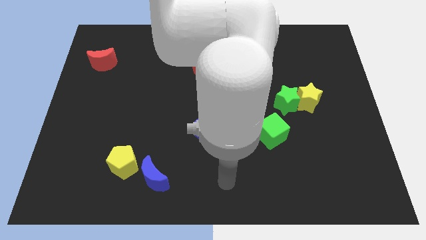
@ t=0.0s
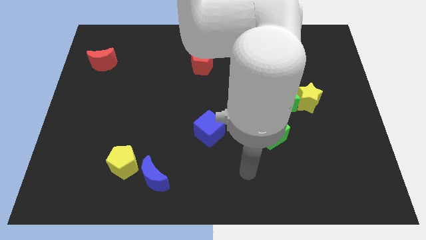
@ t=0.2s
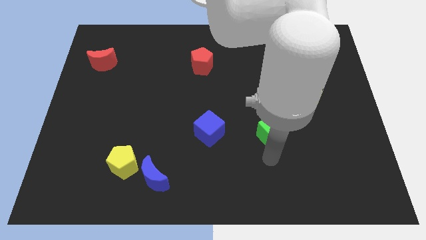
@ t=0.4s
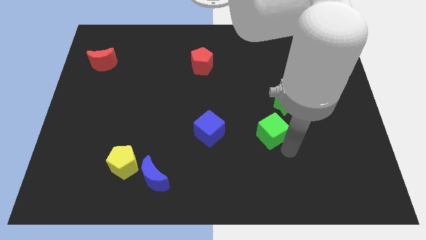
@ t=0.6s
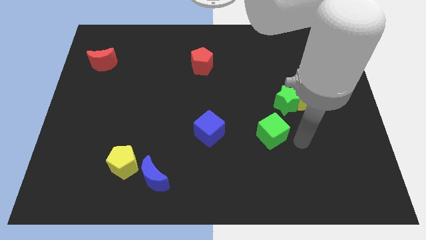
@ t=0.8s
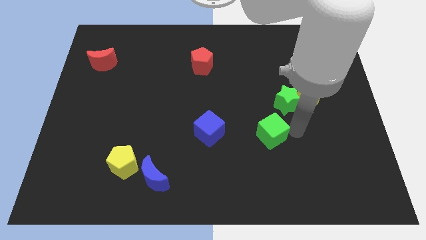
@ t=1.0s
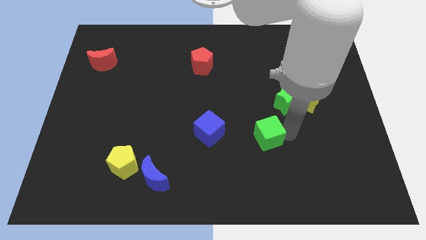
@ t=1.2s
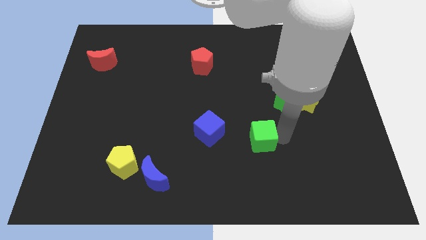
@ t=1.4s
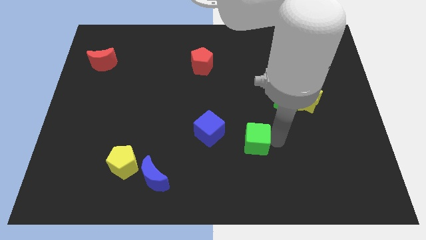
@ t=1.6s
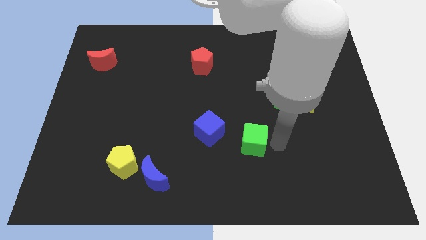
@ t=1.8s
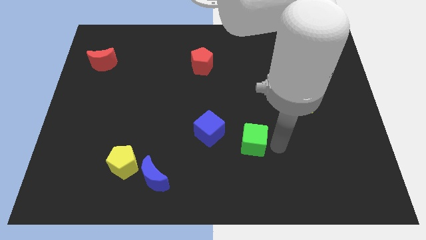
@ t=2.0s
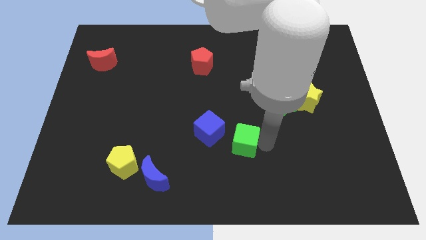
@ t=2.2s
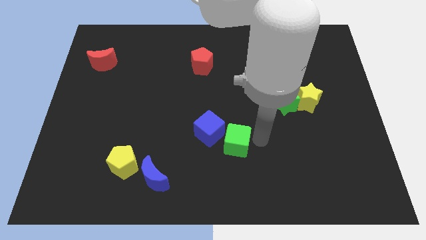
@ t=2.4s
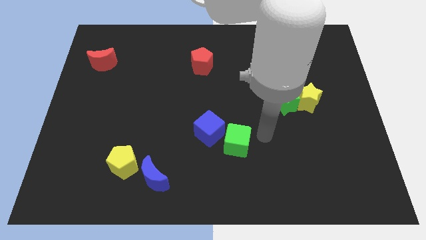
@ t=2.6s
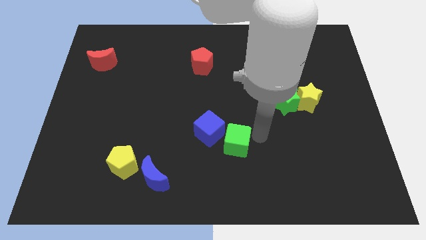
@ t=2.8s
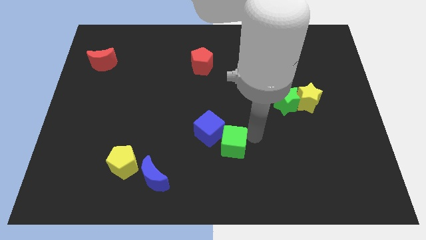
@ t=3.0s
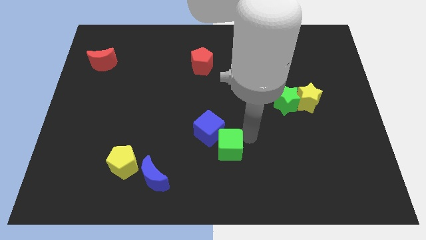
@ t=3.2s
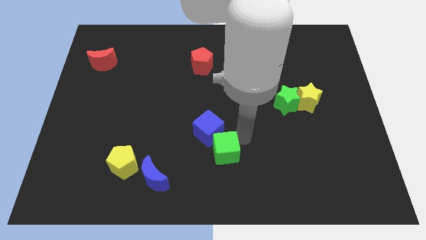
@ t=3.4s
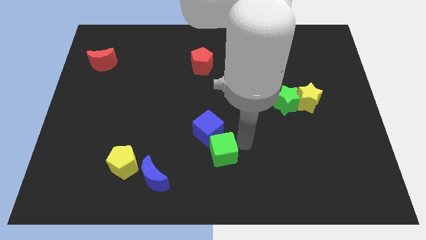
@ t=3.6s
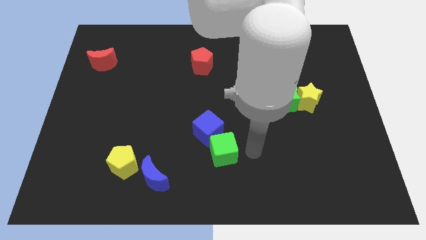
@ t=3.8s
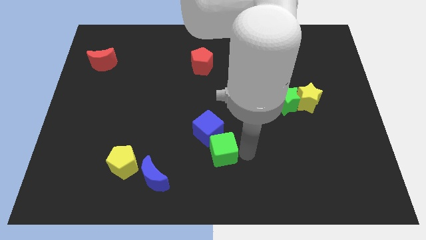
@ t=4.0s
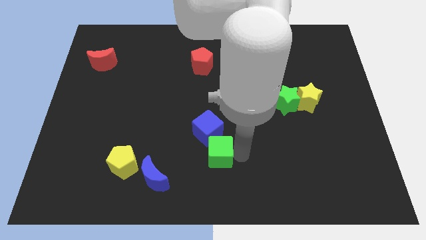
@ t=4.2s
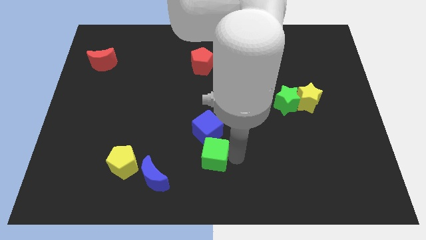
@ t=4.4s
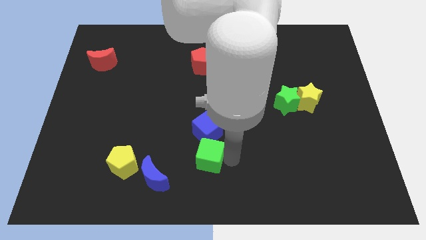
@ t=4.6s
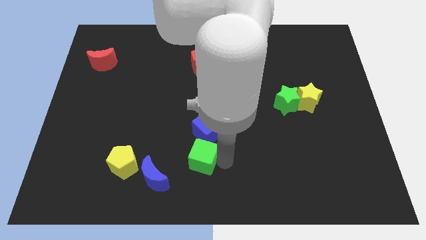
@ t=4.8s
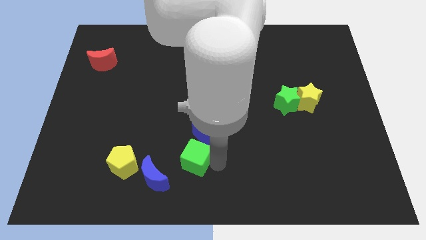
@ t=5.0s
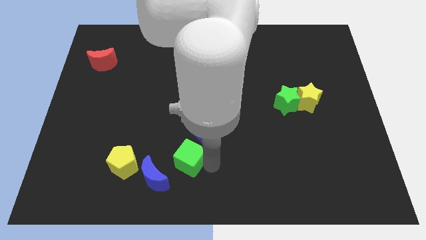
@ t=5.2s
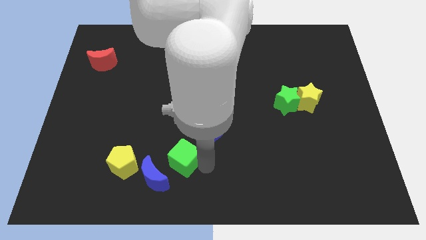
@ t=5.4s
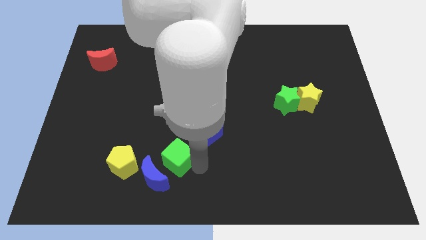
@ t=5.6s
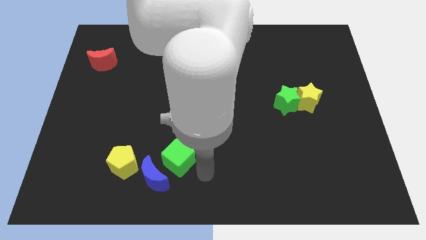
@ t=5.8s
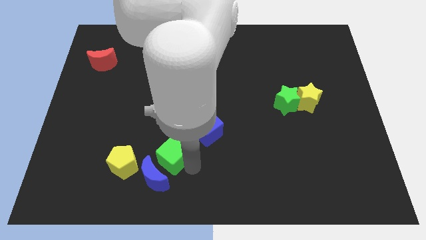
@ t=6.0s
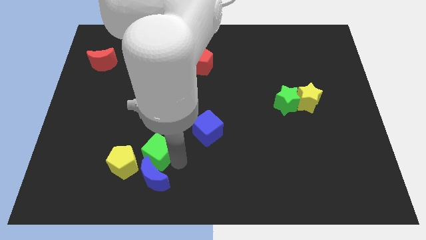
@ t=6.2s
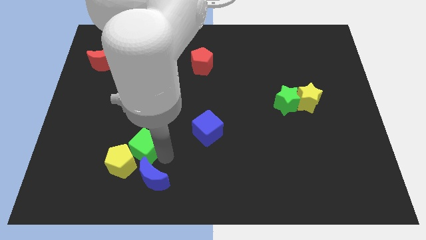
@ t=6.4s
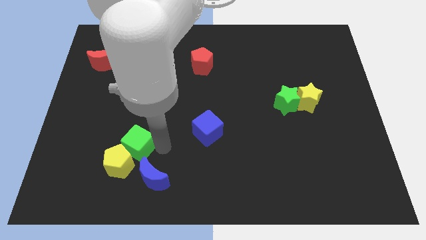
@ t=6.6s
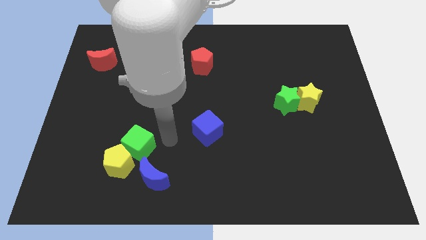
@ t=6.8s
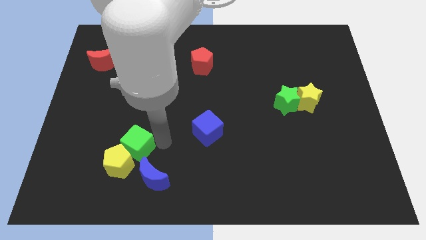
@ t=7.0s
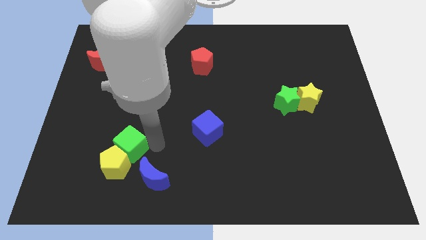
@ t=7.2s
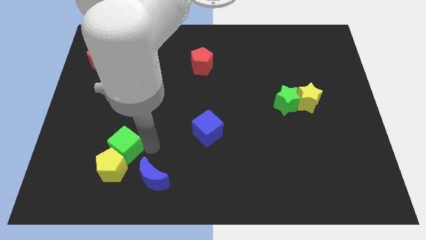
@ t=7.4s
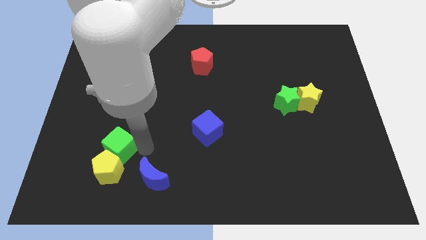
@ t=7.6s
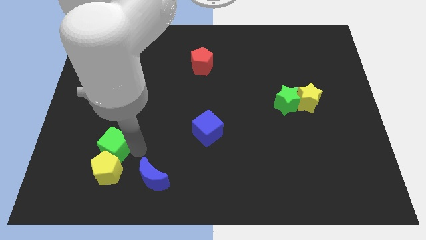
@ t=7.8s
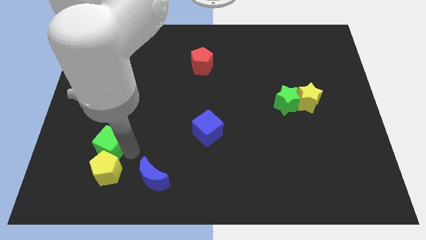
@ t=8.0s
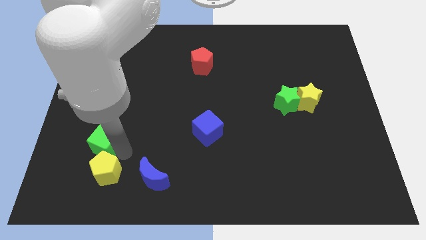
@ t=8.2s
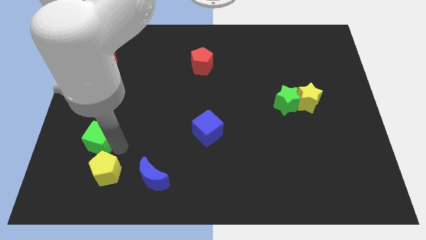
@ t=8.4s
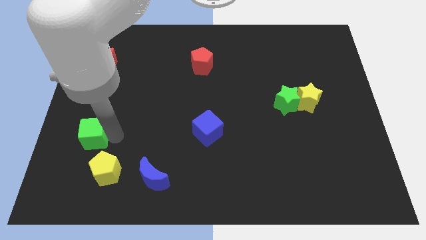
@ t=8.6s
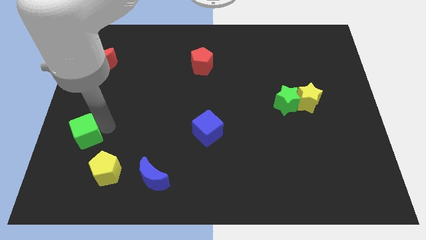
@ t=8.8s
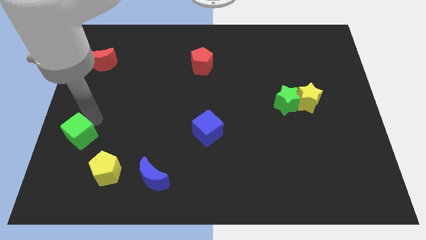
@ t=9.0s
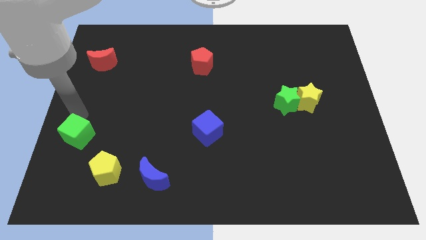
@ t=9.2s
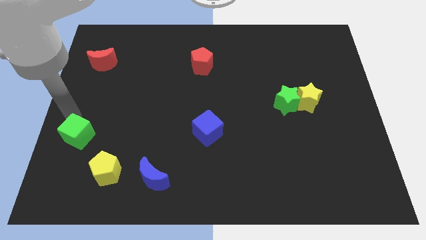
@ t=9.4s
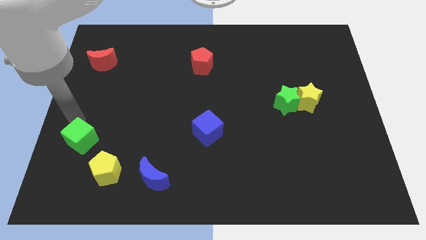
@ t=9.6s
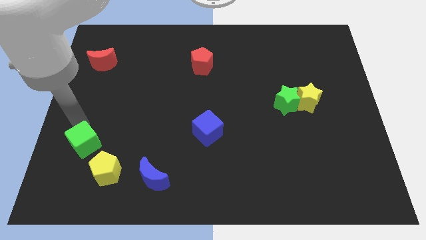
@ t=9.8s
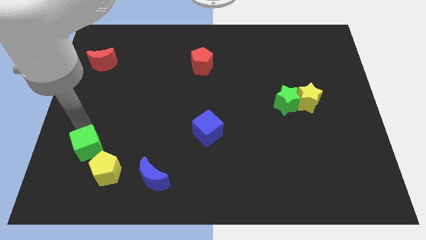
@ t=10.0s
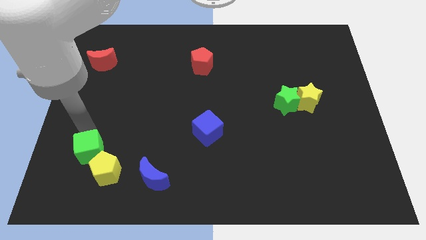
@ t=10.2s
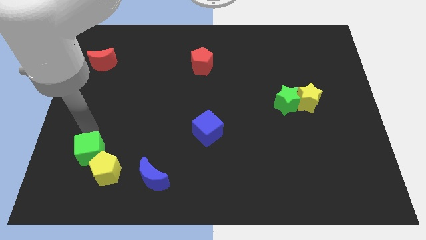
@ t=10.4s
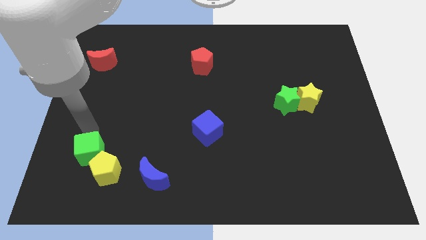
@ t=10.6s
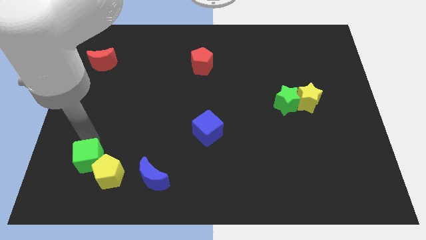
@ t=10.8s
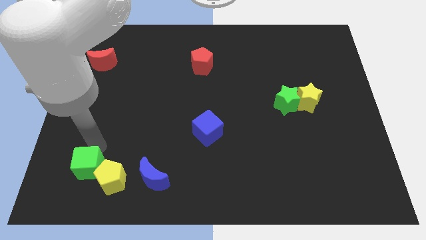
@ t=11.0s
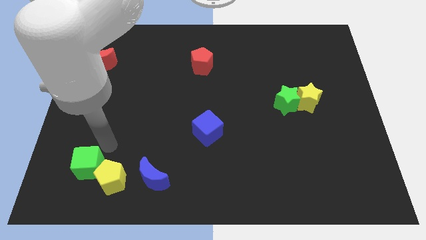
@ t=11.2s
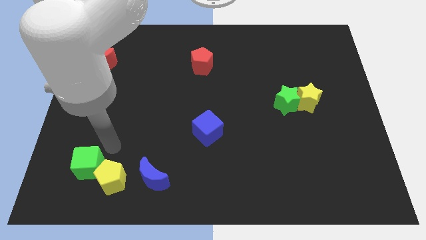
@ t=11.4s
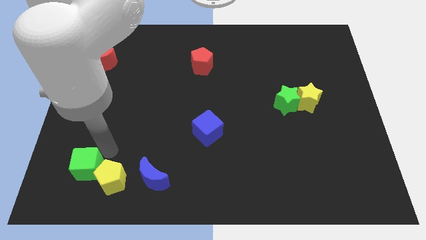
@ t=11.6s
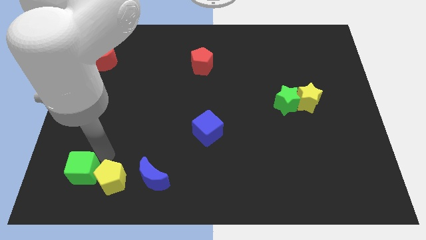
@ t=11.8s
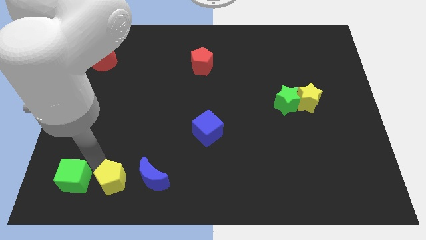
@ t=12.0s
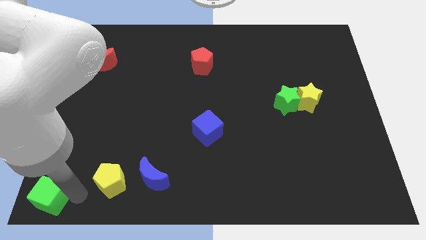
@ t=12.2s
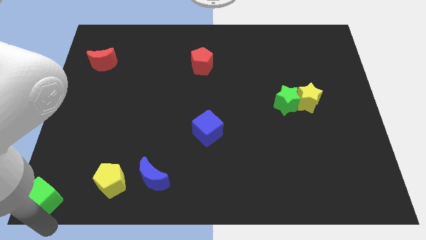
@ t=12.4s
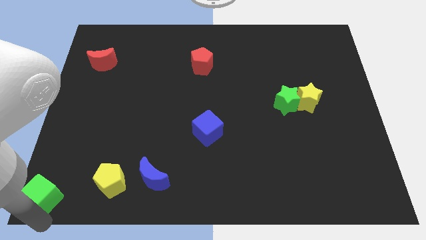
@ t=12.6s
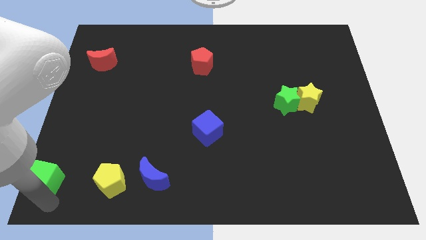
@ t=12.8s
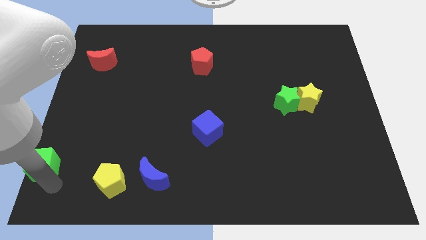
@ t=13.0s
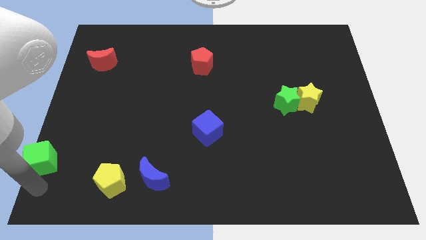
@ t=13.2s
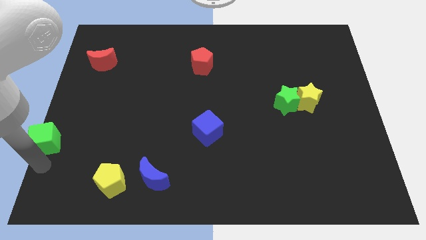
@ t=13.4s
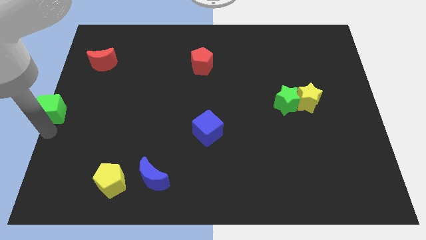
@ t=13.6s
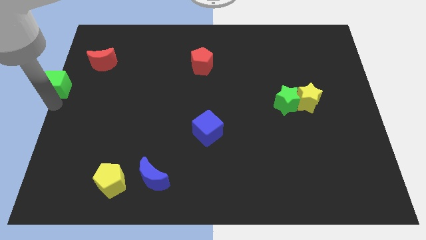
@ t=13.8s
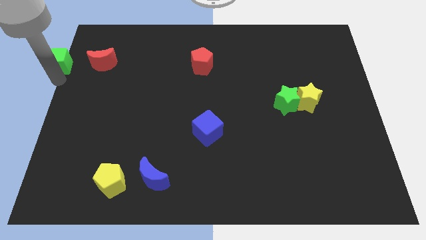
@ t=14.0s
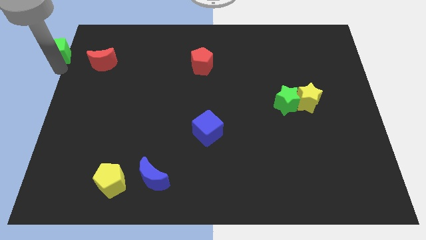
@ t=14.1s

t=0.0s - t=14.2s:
move the green cube to the top left
